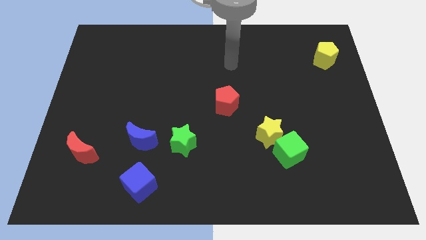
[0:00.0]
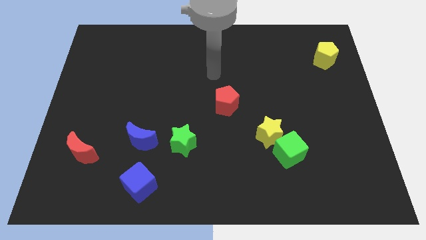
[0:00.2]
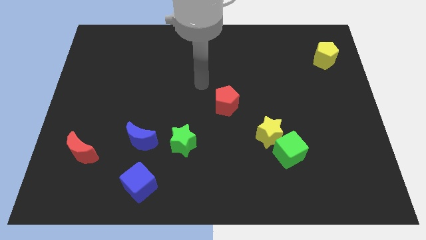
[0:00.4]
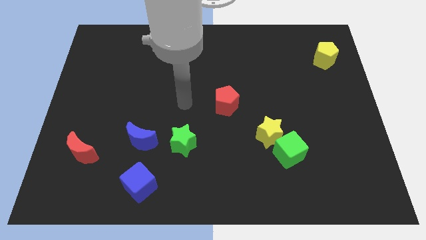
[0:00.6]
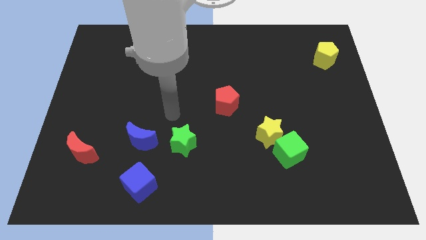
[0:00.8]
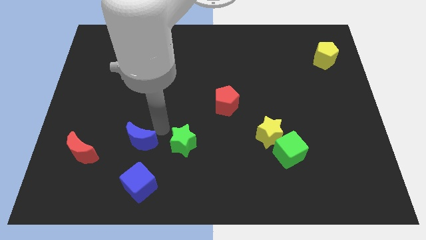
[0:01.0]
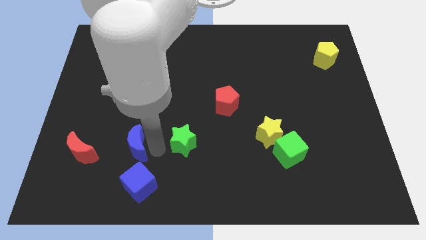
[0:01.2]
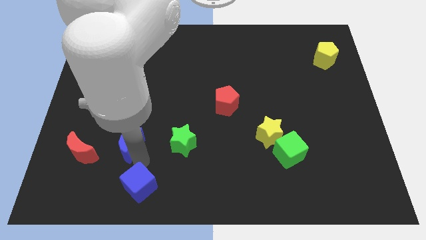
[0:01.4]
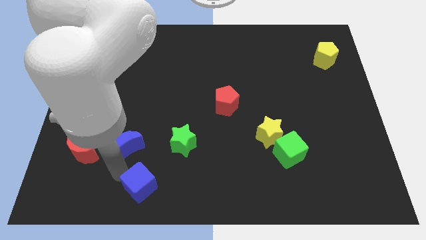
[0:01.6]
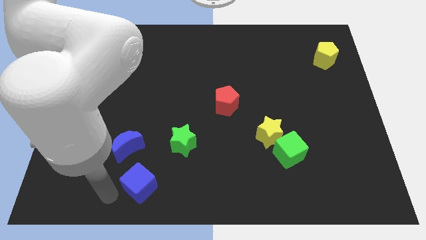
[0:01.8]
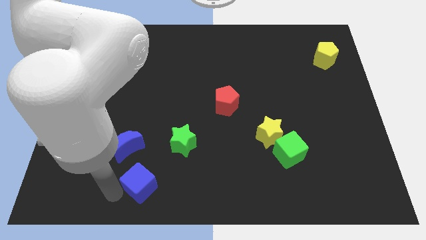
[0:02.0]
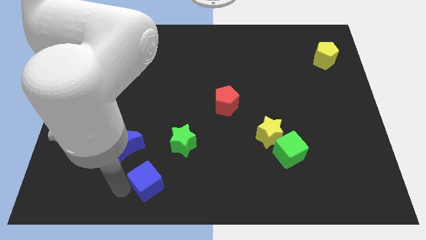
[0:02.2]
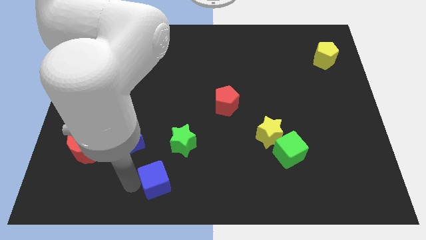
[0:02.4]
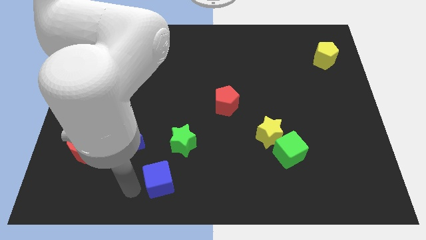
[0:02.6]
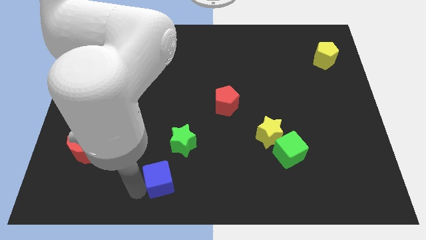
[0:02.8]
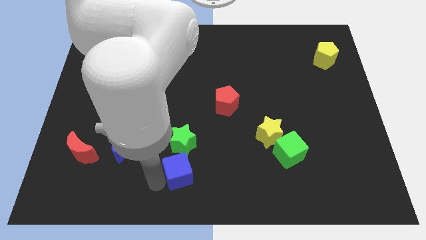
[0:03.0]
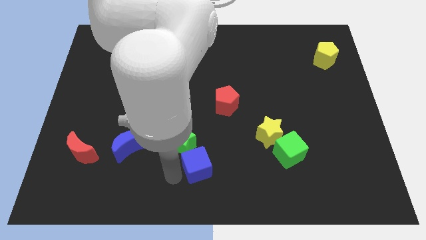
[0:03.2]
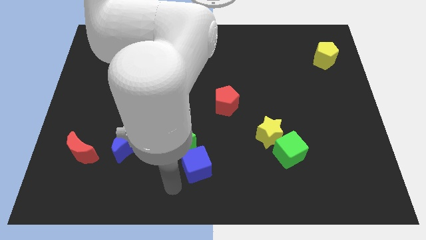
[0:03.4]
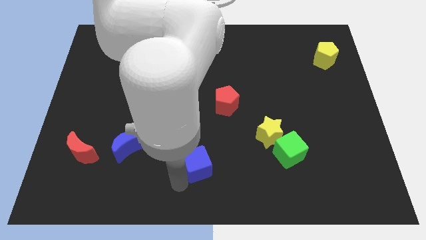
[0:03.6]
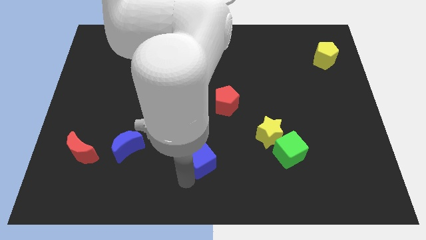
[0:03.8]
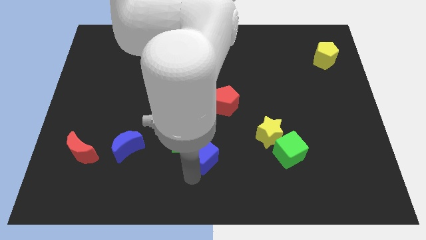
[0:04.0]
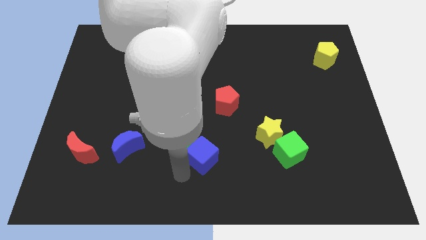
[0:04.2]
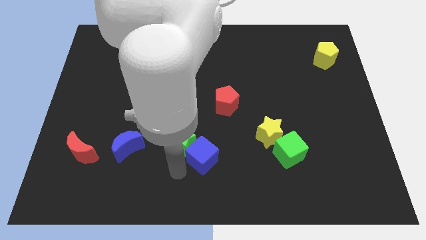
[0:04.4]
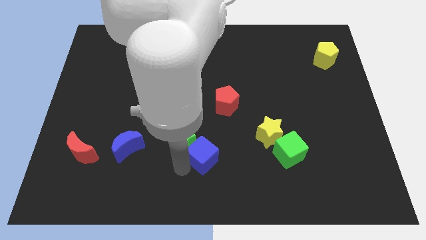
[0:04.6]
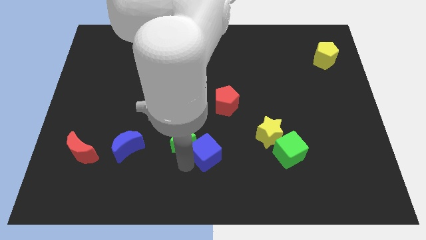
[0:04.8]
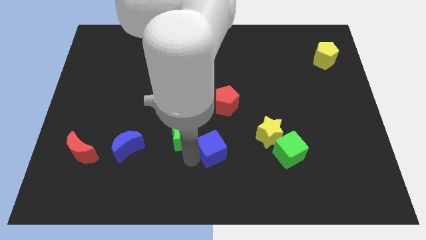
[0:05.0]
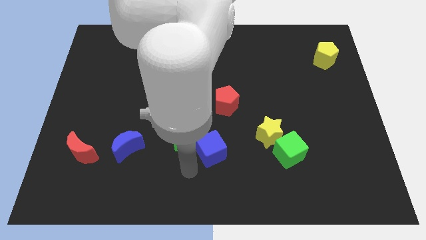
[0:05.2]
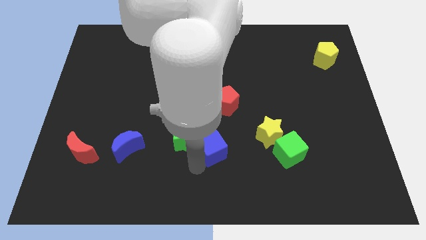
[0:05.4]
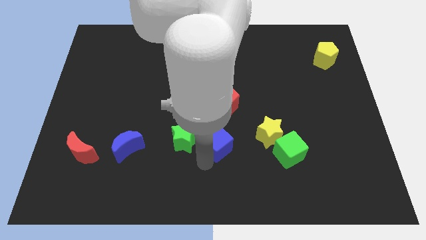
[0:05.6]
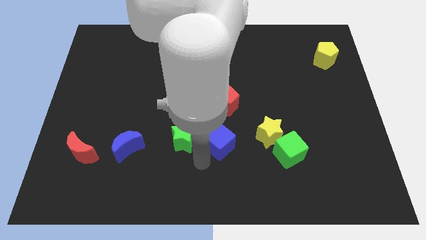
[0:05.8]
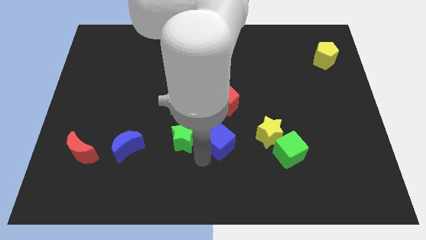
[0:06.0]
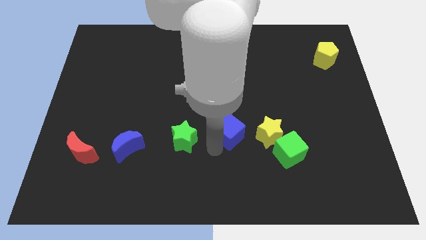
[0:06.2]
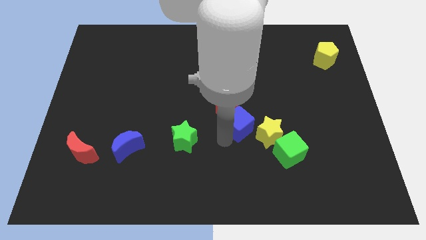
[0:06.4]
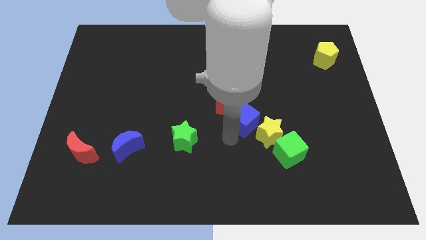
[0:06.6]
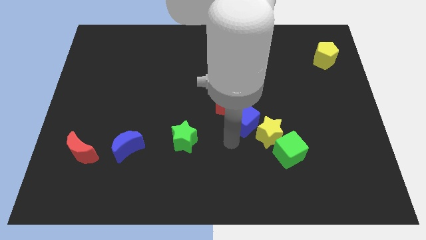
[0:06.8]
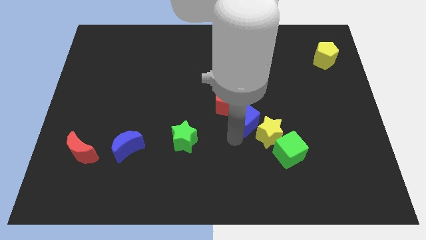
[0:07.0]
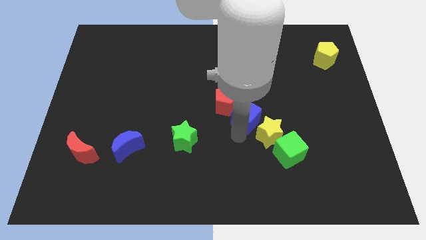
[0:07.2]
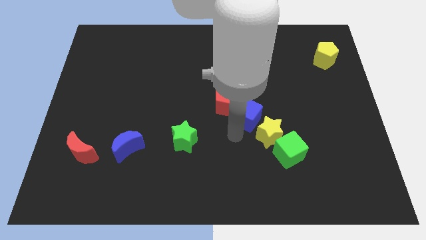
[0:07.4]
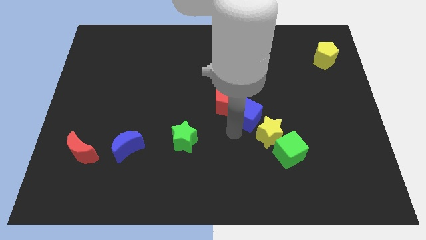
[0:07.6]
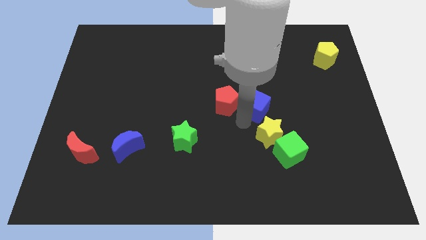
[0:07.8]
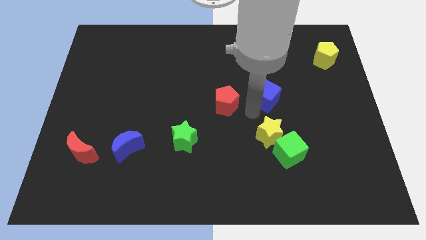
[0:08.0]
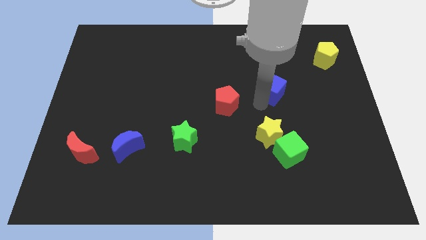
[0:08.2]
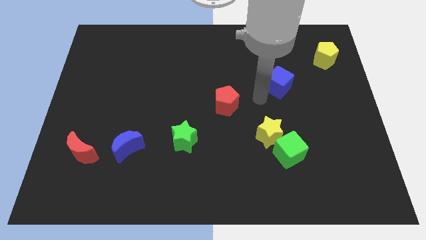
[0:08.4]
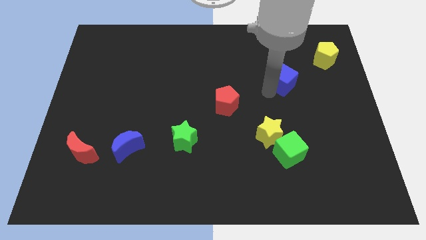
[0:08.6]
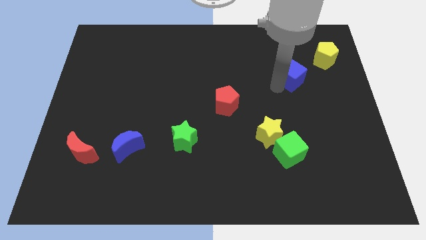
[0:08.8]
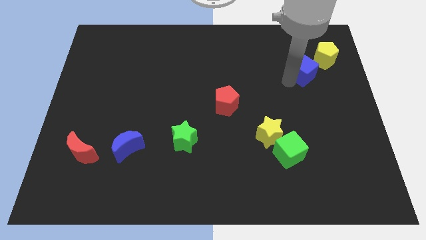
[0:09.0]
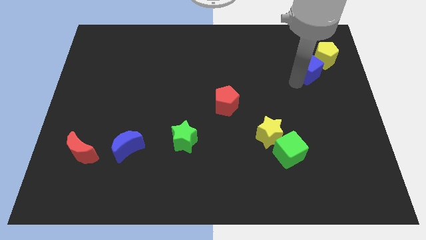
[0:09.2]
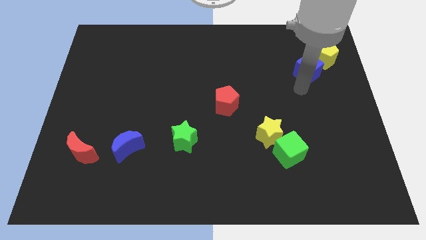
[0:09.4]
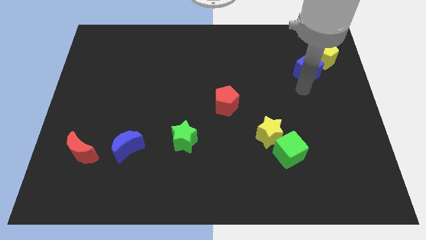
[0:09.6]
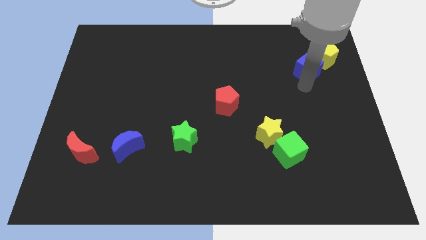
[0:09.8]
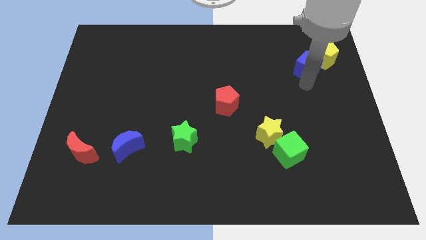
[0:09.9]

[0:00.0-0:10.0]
move the blue cube to the yellow pentagon

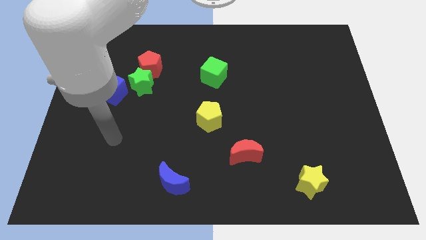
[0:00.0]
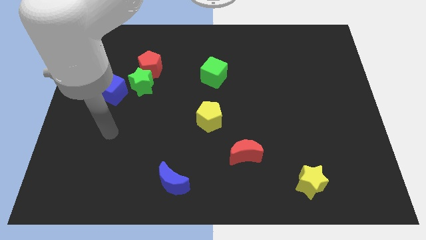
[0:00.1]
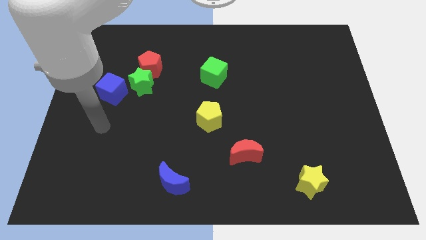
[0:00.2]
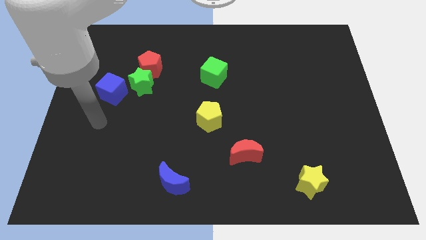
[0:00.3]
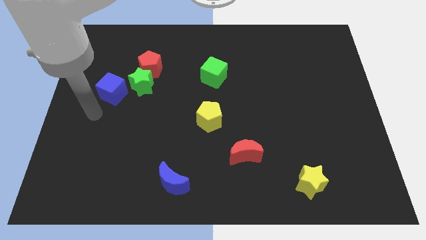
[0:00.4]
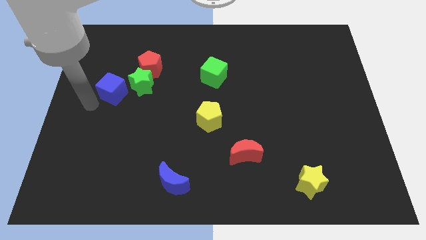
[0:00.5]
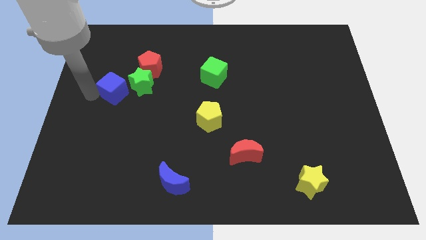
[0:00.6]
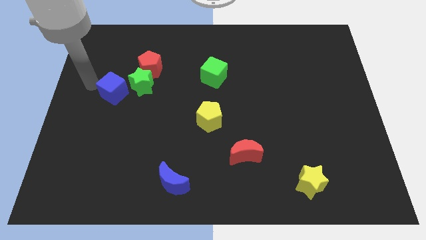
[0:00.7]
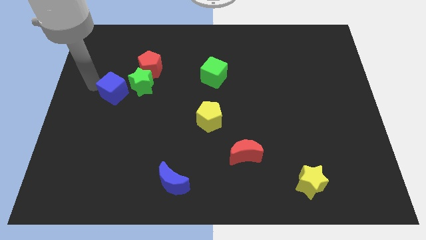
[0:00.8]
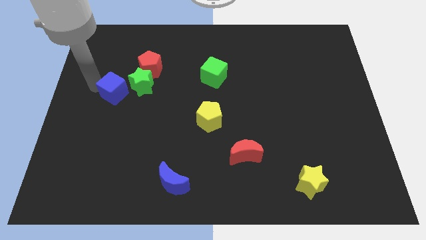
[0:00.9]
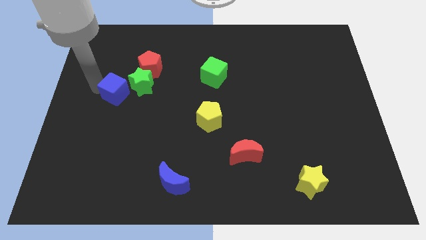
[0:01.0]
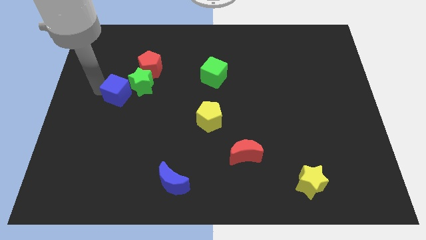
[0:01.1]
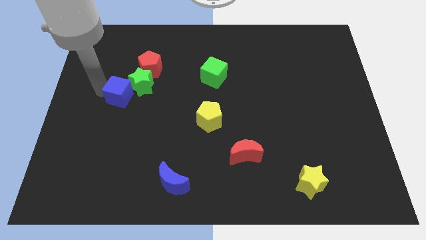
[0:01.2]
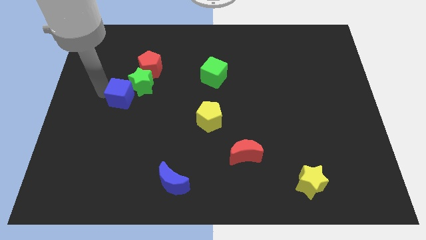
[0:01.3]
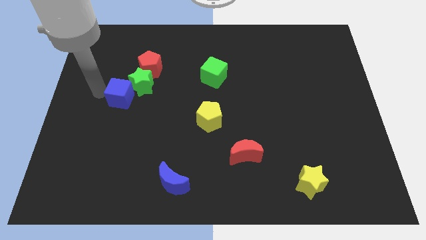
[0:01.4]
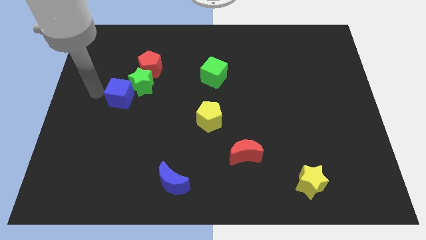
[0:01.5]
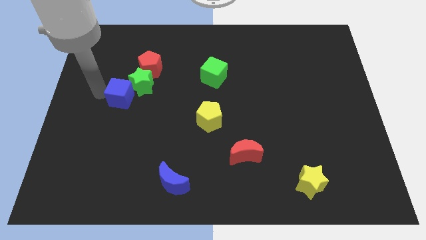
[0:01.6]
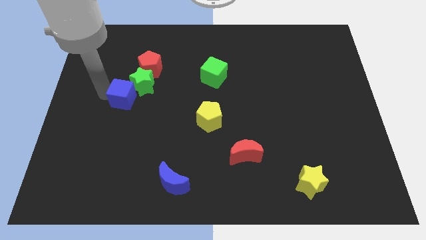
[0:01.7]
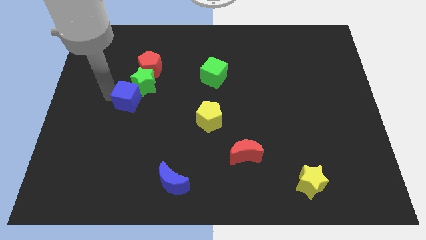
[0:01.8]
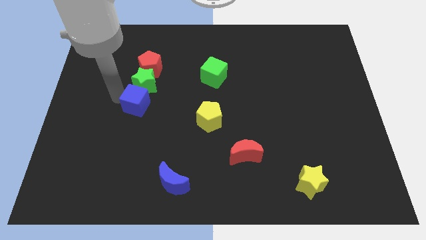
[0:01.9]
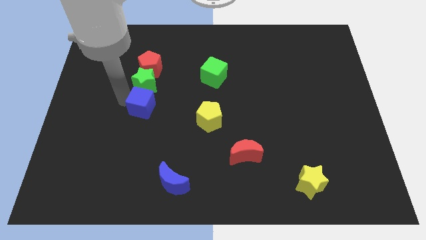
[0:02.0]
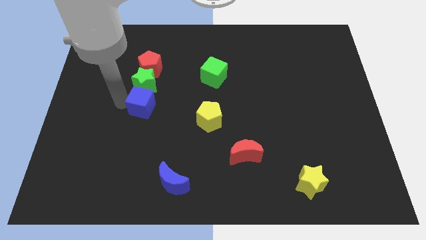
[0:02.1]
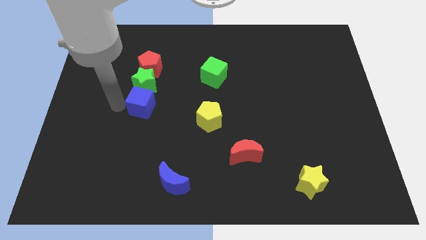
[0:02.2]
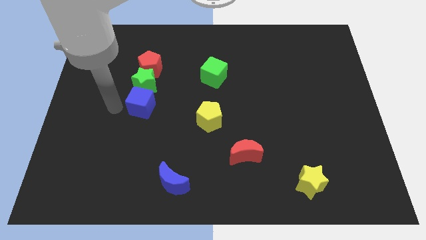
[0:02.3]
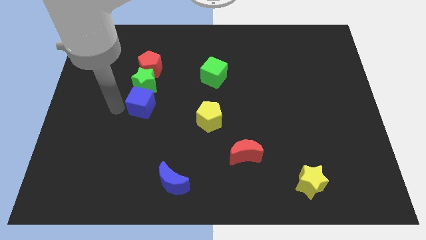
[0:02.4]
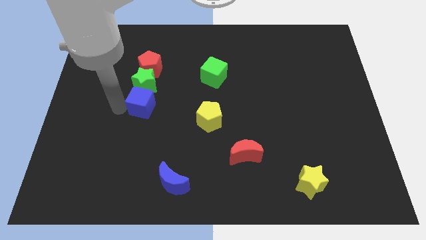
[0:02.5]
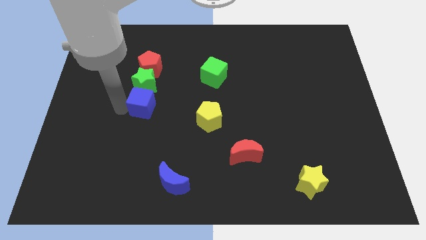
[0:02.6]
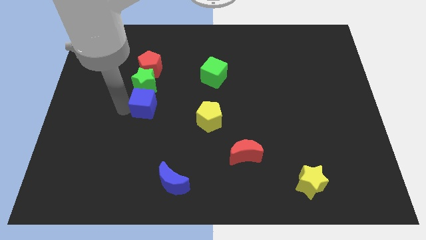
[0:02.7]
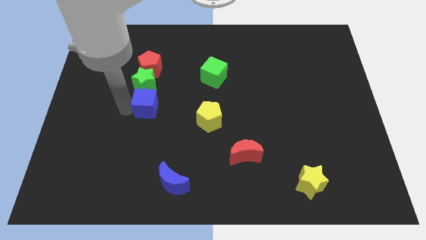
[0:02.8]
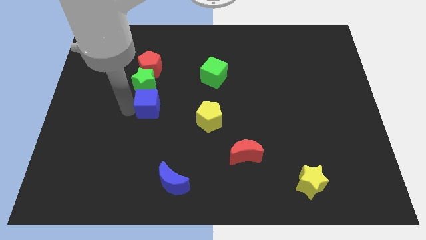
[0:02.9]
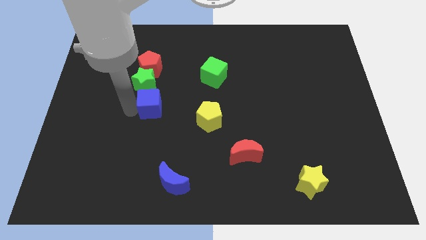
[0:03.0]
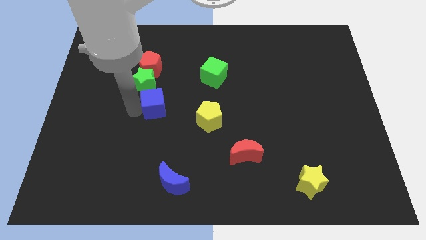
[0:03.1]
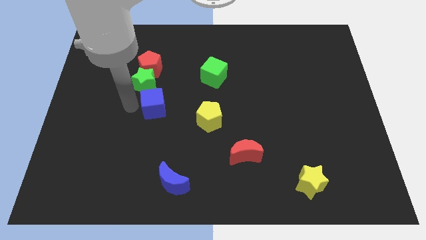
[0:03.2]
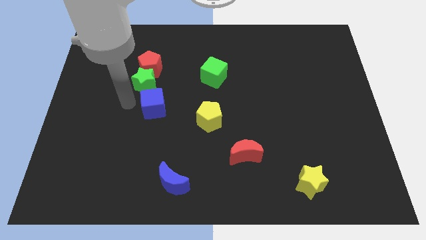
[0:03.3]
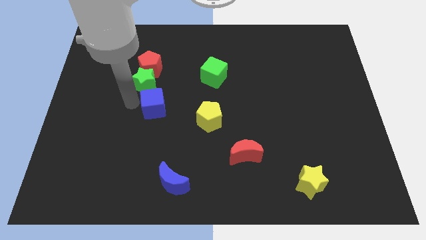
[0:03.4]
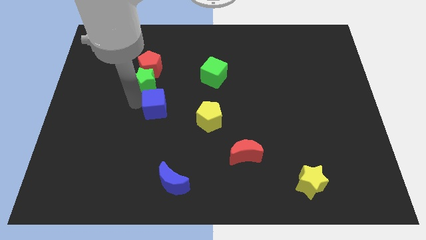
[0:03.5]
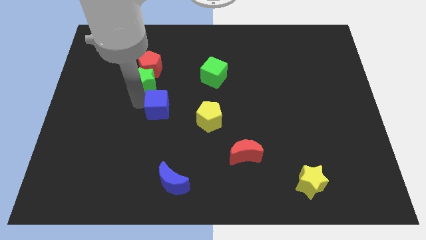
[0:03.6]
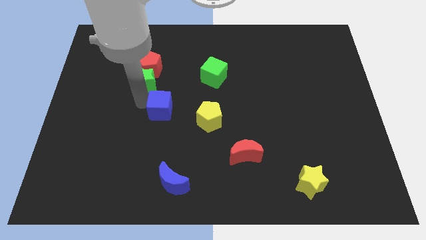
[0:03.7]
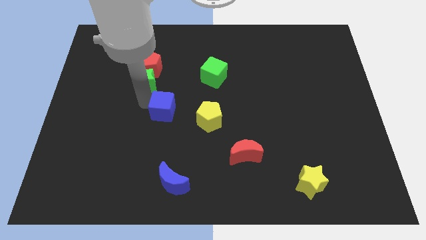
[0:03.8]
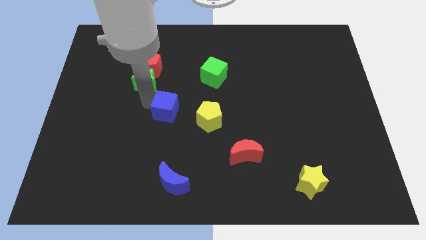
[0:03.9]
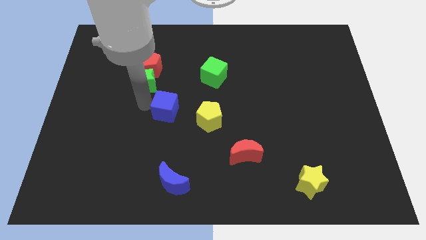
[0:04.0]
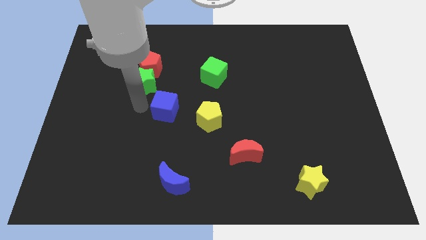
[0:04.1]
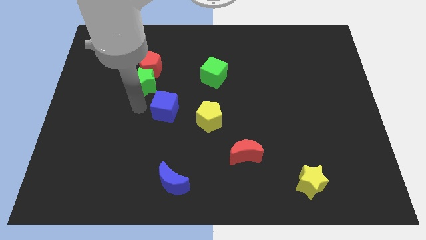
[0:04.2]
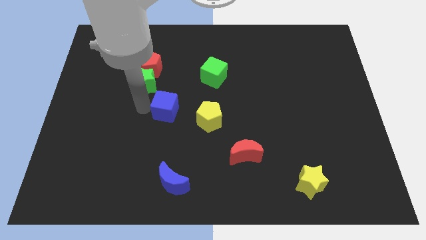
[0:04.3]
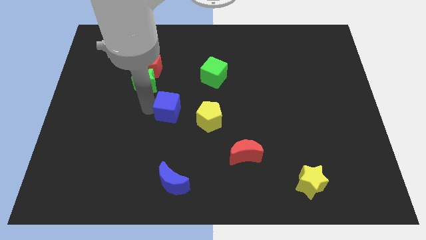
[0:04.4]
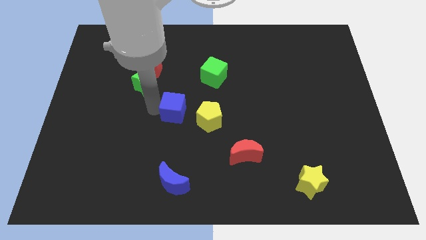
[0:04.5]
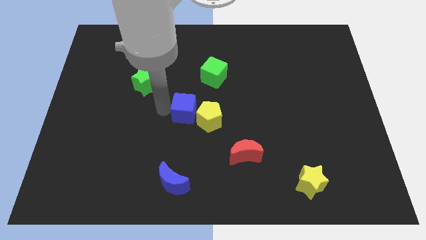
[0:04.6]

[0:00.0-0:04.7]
slide the blue cube towards the yellow pentagon
